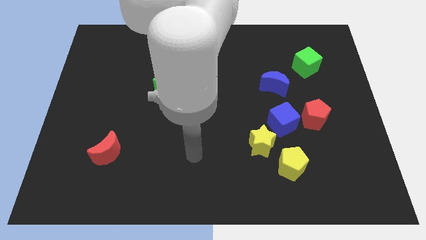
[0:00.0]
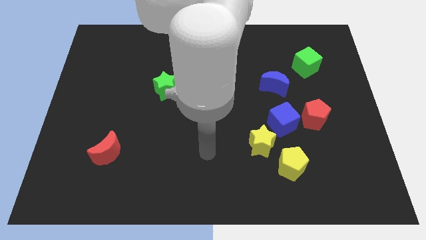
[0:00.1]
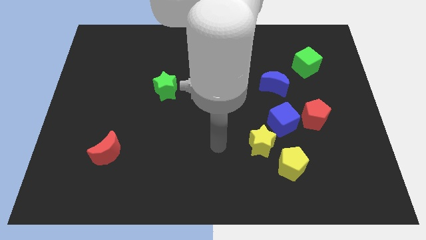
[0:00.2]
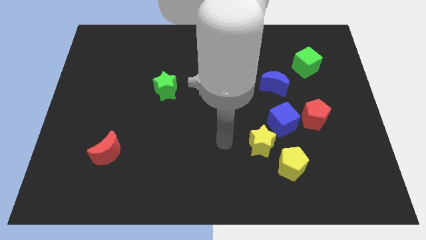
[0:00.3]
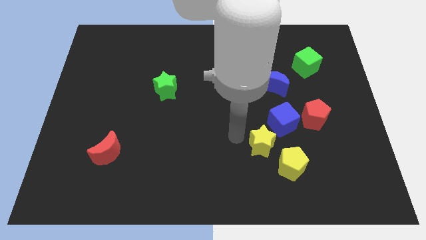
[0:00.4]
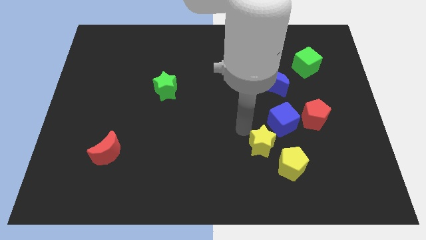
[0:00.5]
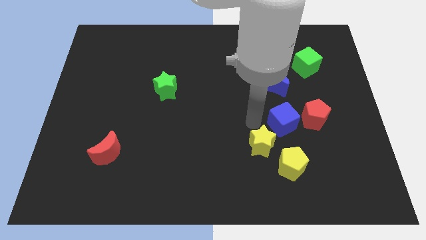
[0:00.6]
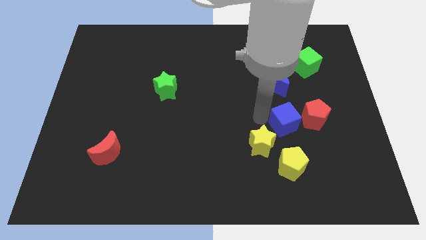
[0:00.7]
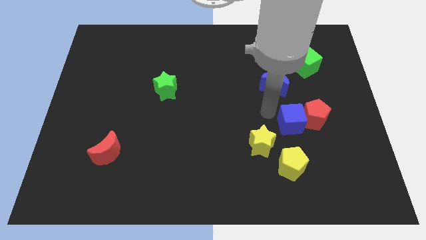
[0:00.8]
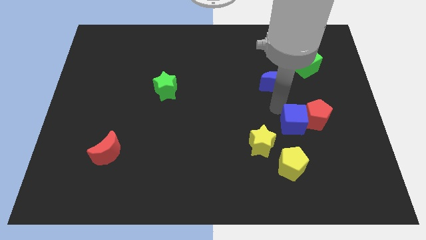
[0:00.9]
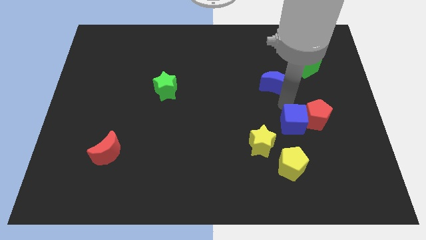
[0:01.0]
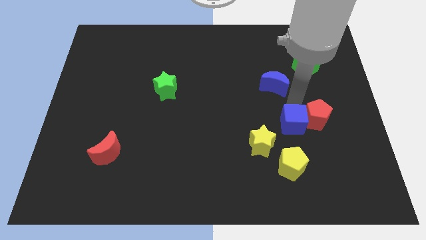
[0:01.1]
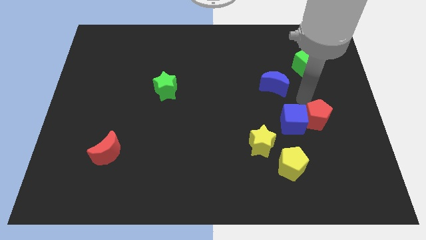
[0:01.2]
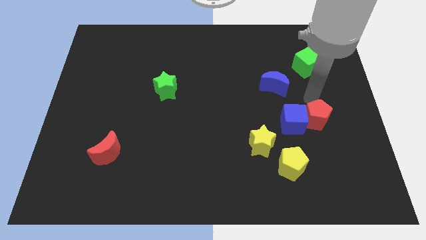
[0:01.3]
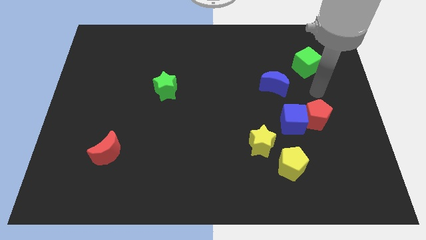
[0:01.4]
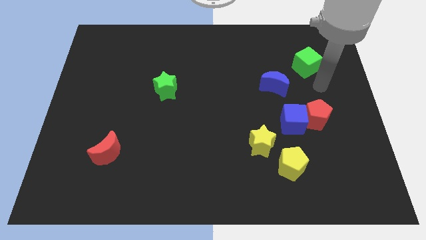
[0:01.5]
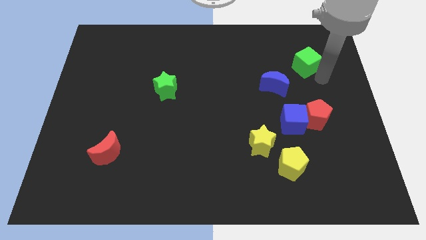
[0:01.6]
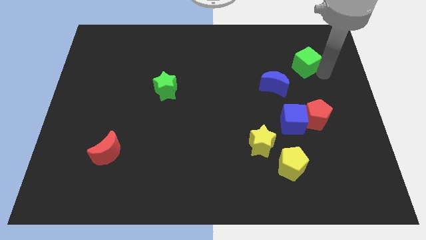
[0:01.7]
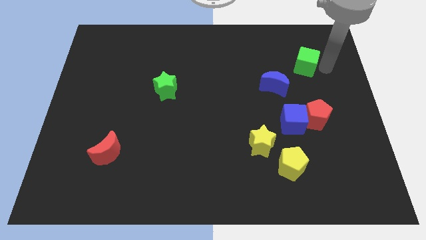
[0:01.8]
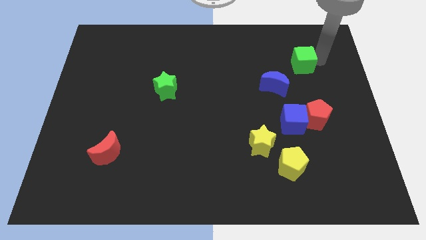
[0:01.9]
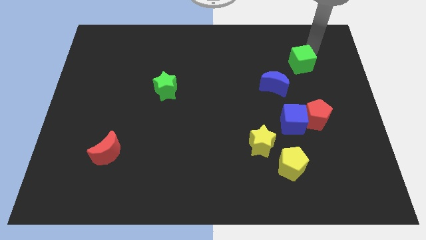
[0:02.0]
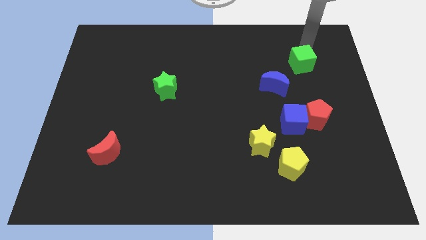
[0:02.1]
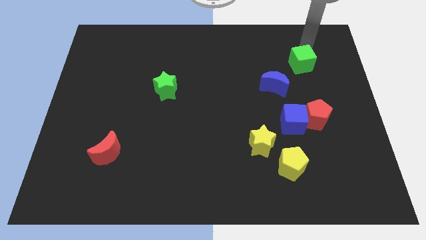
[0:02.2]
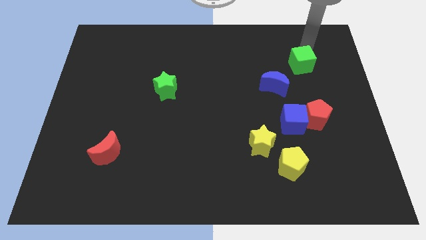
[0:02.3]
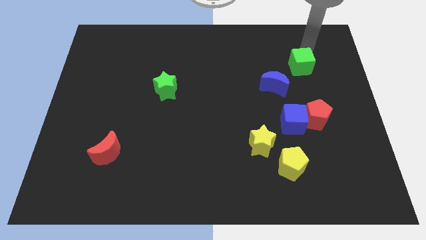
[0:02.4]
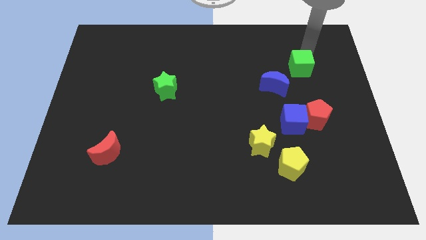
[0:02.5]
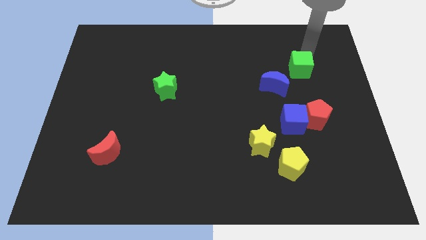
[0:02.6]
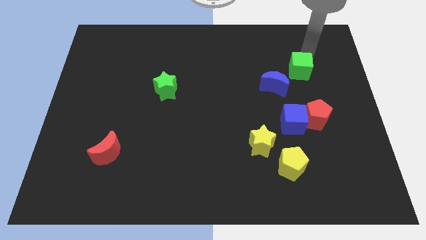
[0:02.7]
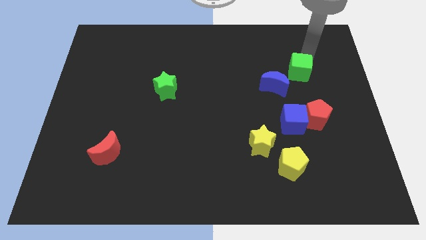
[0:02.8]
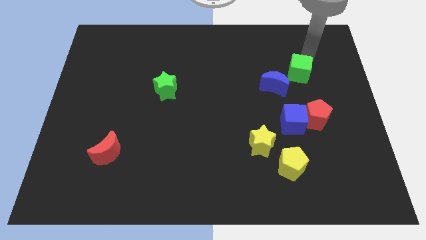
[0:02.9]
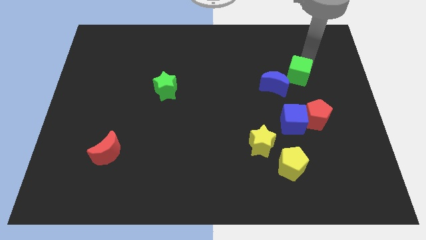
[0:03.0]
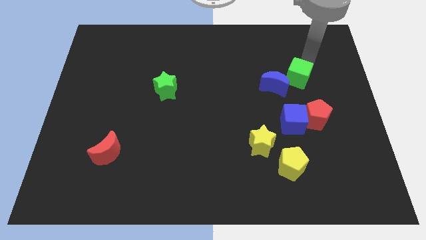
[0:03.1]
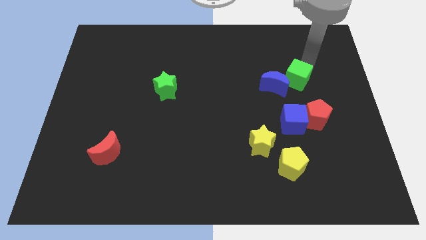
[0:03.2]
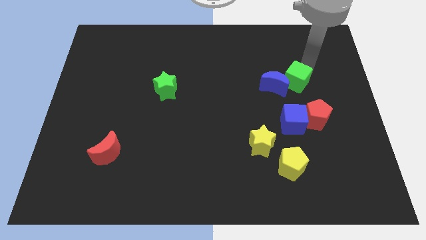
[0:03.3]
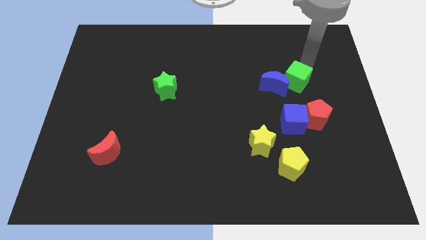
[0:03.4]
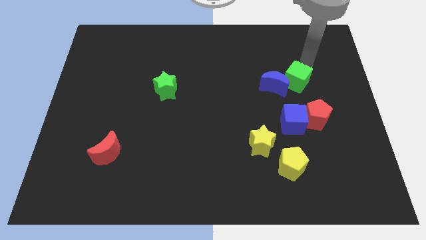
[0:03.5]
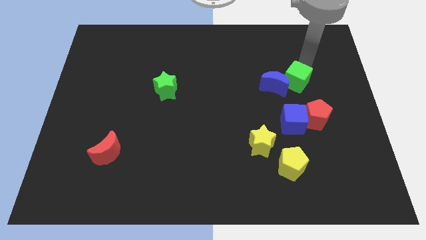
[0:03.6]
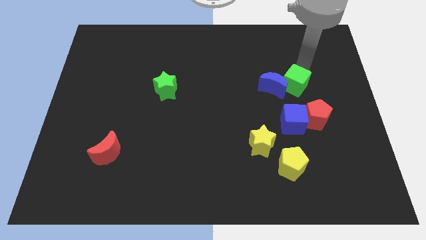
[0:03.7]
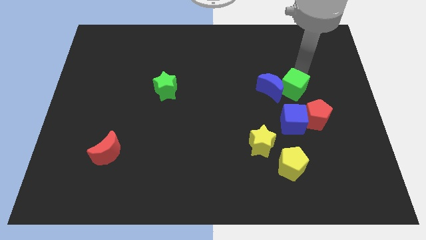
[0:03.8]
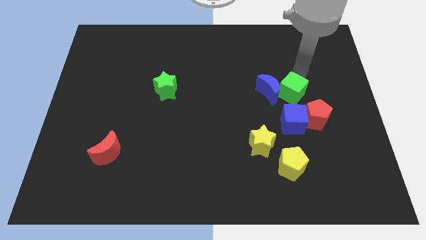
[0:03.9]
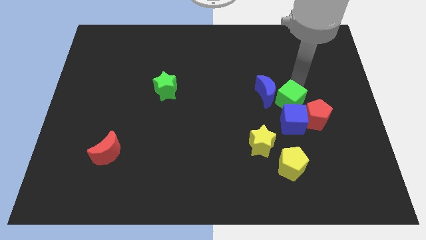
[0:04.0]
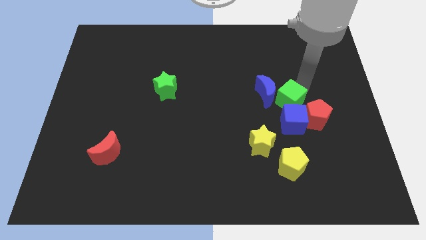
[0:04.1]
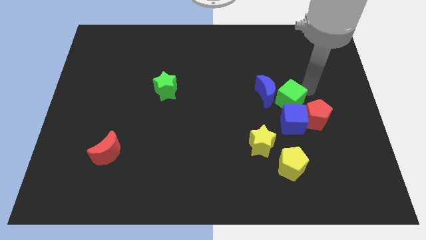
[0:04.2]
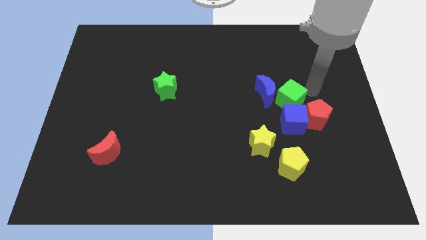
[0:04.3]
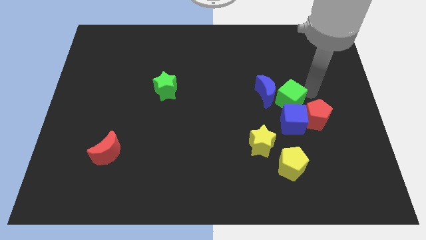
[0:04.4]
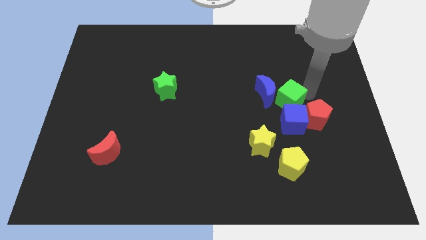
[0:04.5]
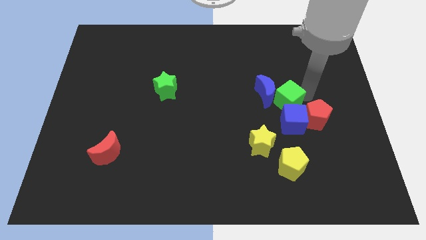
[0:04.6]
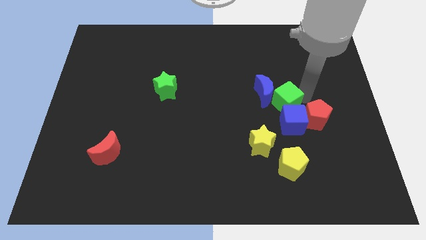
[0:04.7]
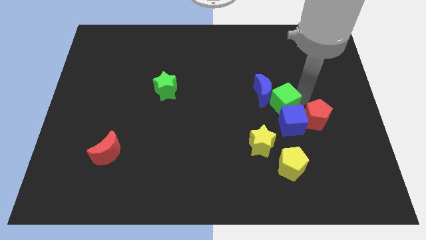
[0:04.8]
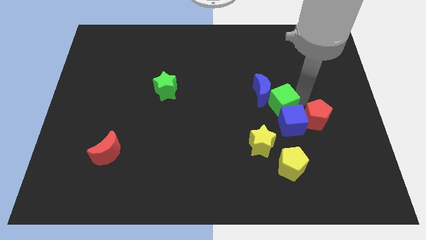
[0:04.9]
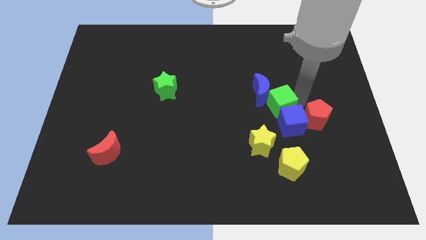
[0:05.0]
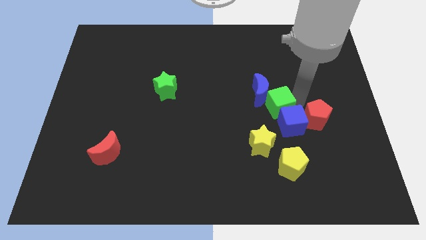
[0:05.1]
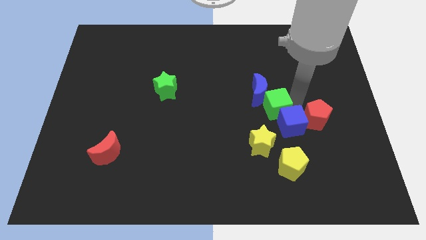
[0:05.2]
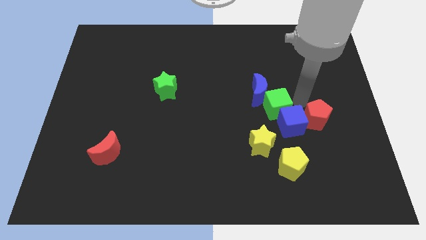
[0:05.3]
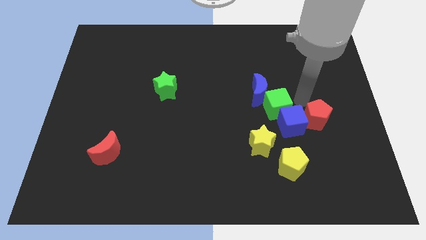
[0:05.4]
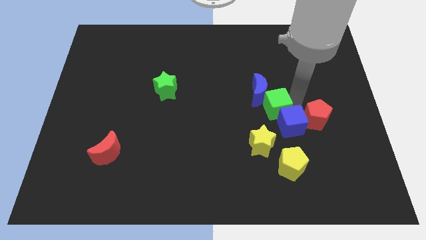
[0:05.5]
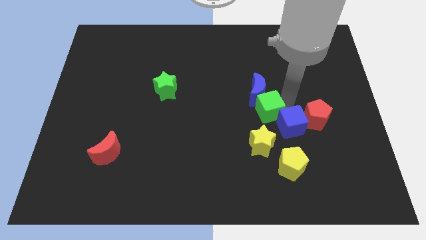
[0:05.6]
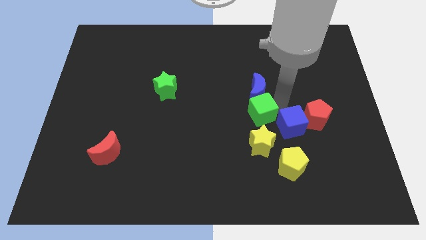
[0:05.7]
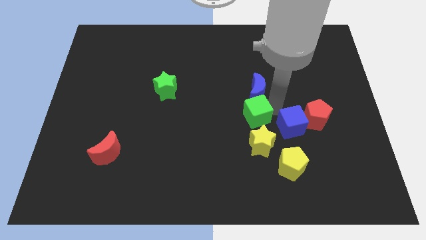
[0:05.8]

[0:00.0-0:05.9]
move the green cube down and to the left diagonally

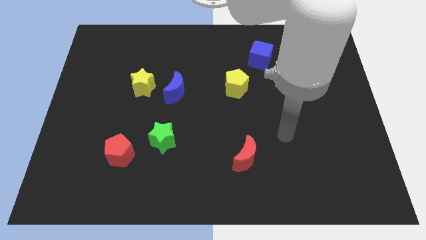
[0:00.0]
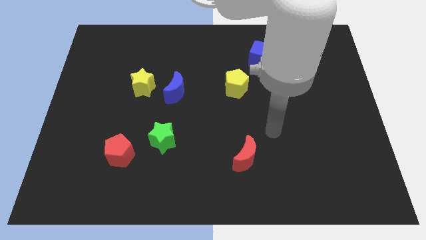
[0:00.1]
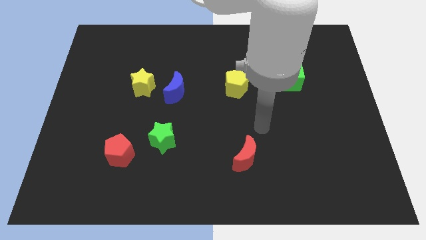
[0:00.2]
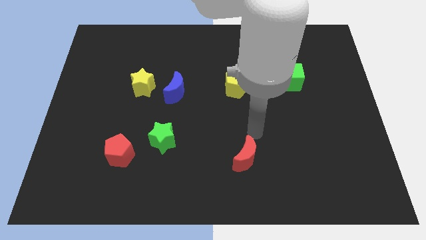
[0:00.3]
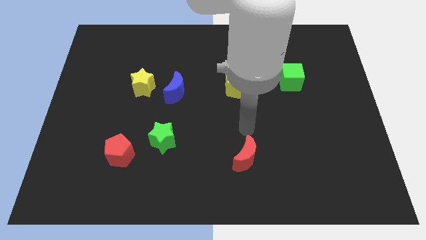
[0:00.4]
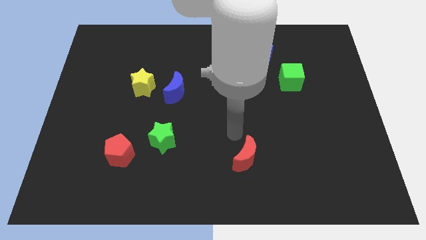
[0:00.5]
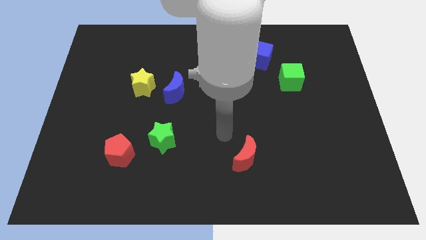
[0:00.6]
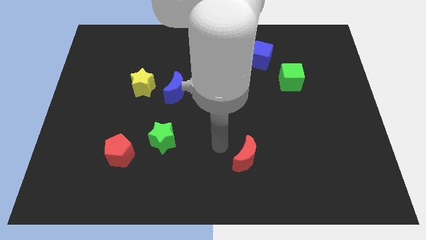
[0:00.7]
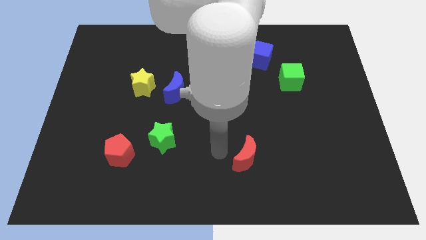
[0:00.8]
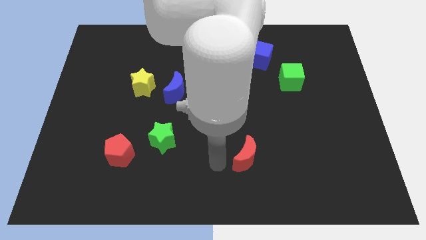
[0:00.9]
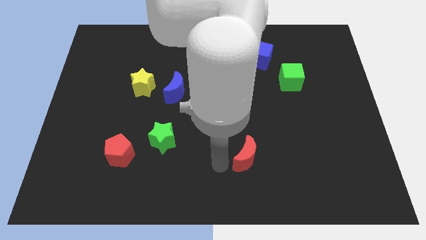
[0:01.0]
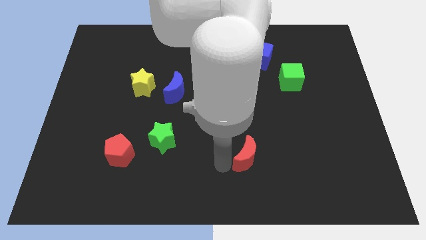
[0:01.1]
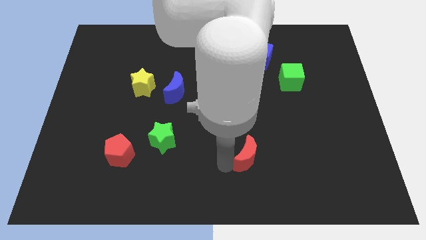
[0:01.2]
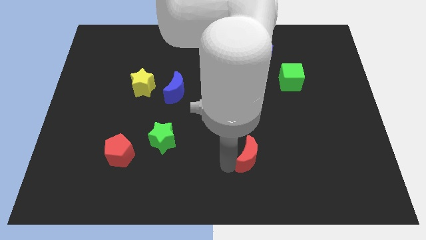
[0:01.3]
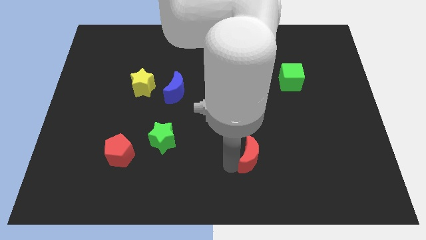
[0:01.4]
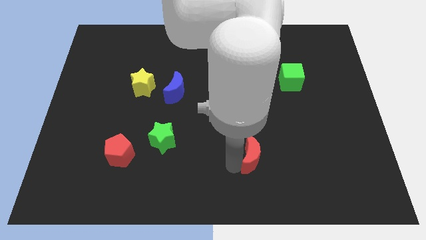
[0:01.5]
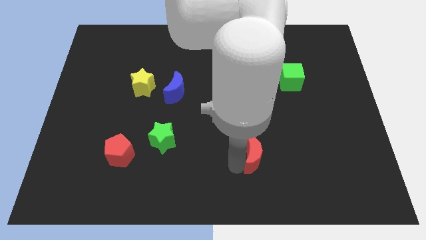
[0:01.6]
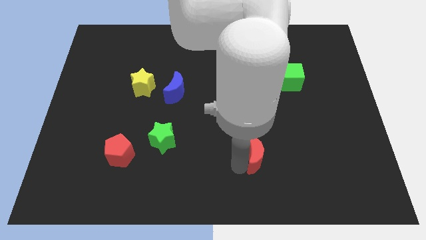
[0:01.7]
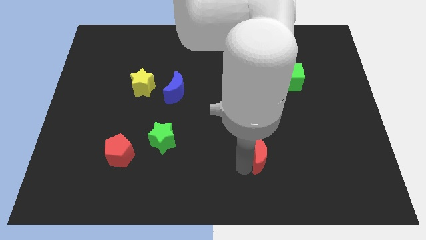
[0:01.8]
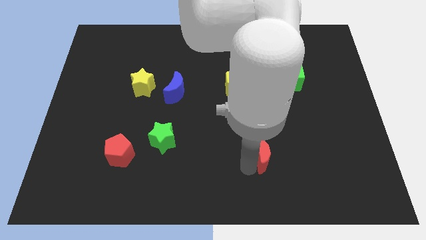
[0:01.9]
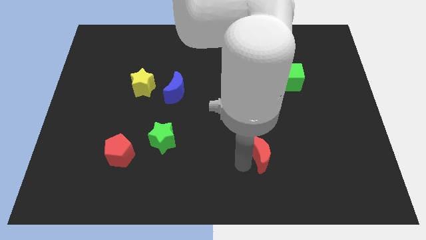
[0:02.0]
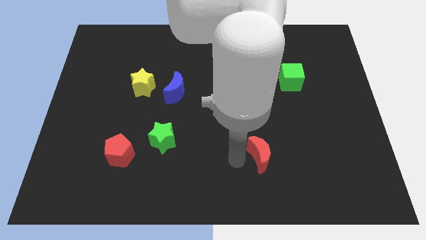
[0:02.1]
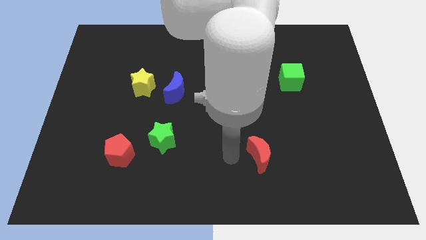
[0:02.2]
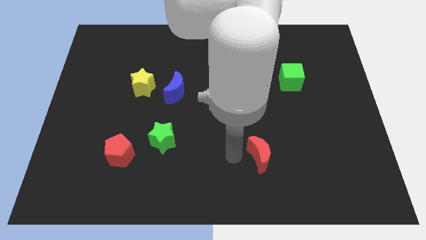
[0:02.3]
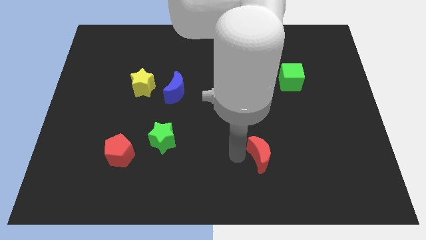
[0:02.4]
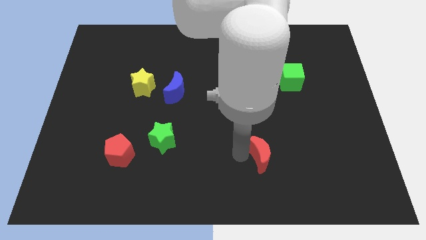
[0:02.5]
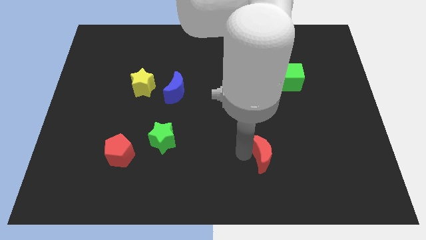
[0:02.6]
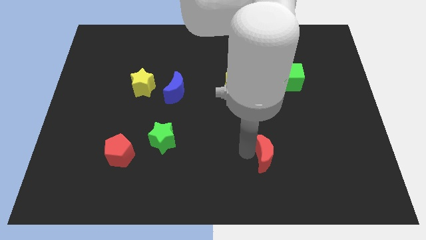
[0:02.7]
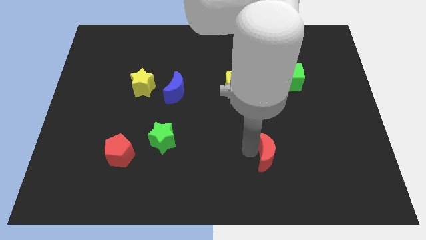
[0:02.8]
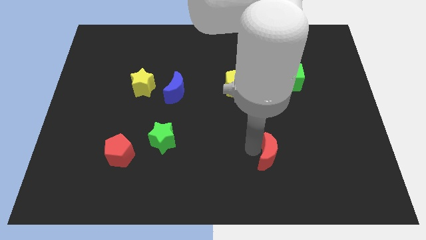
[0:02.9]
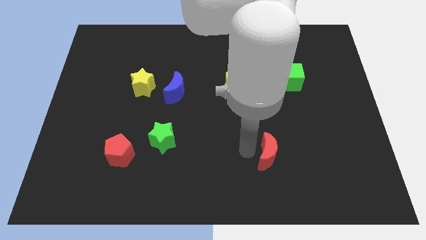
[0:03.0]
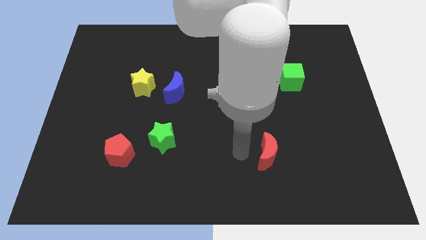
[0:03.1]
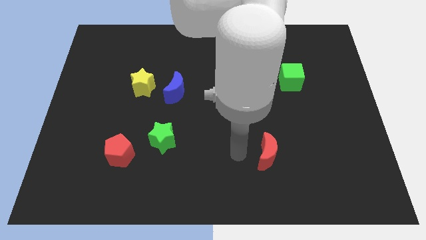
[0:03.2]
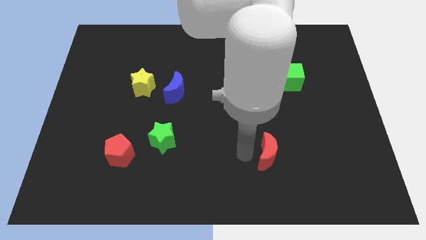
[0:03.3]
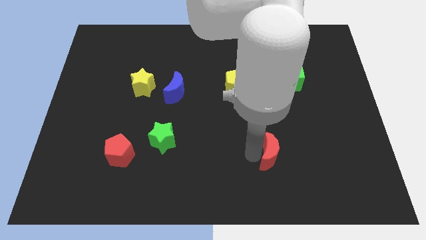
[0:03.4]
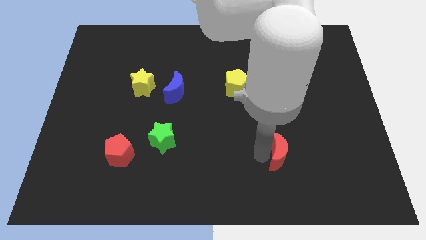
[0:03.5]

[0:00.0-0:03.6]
slightly push the red moon right
